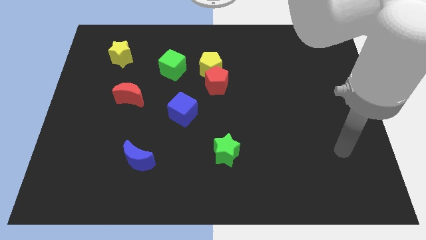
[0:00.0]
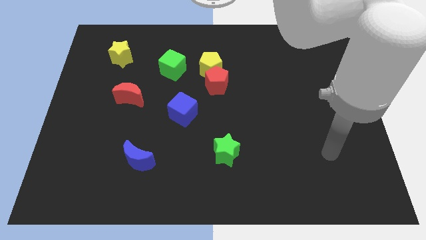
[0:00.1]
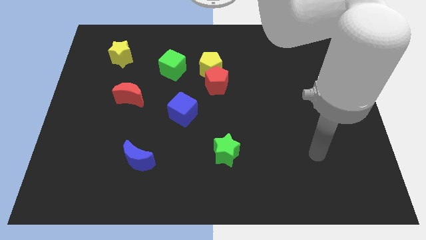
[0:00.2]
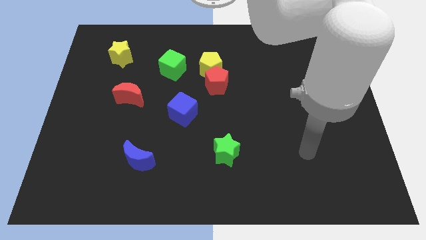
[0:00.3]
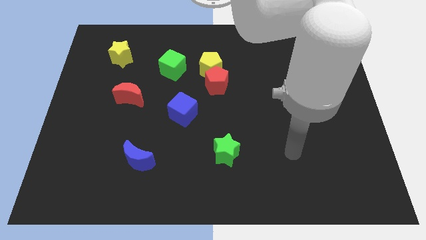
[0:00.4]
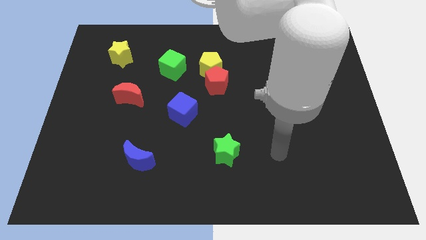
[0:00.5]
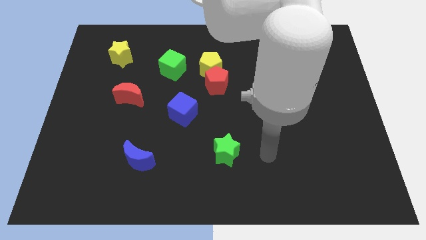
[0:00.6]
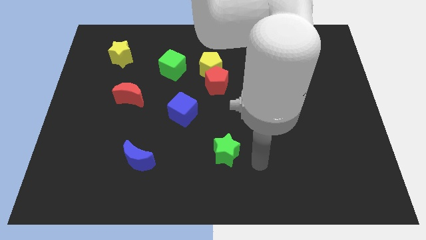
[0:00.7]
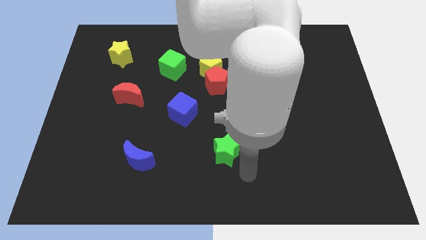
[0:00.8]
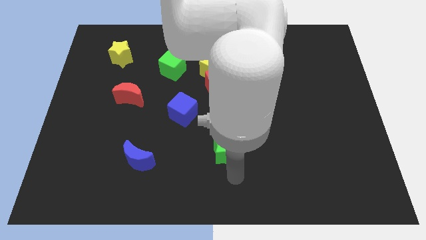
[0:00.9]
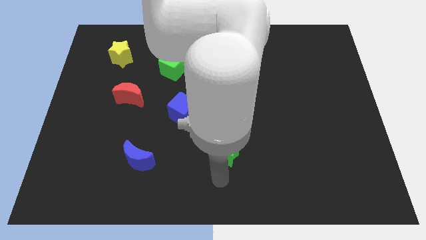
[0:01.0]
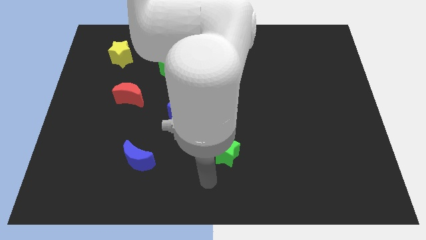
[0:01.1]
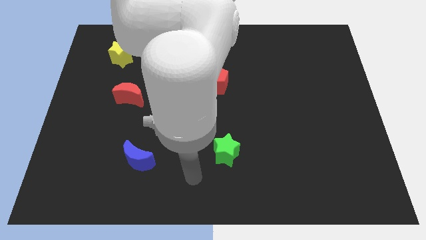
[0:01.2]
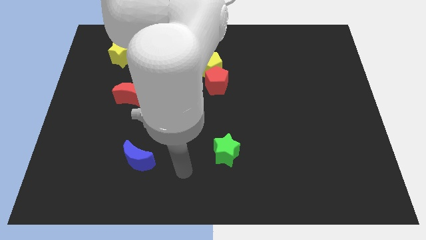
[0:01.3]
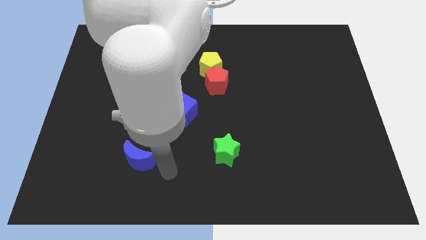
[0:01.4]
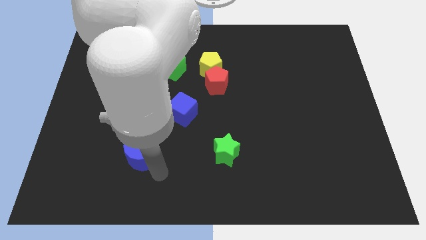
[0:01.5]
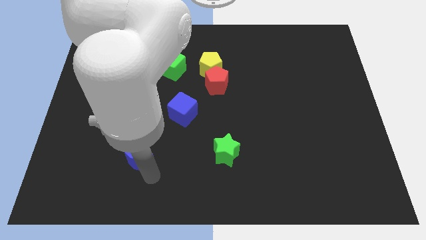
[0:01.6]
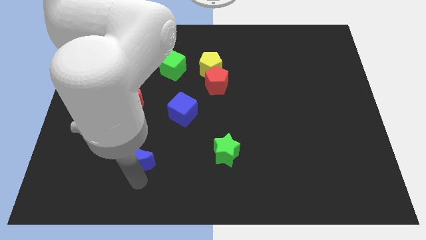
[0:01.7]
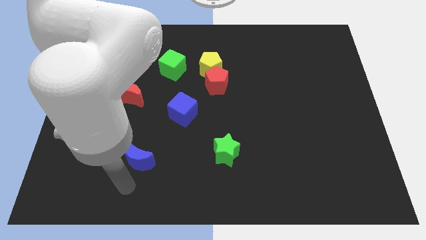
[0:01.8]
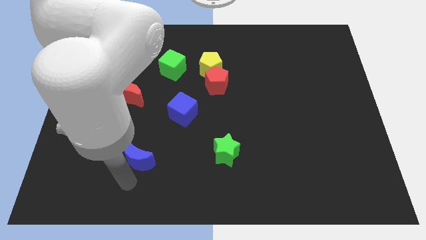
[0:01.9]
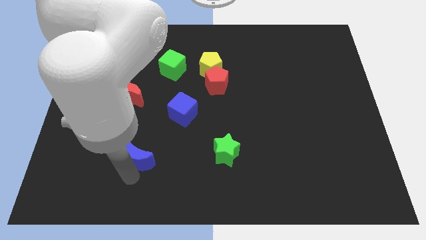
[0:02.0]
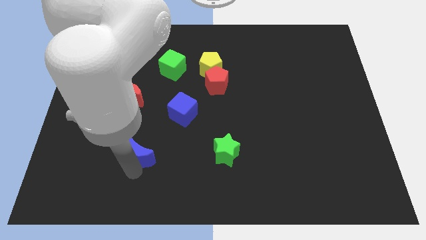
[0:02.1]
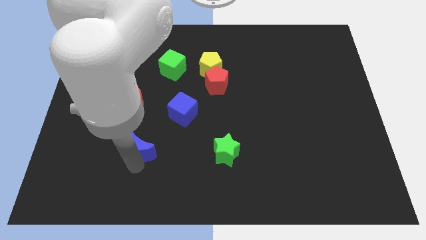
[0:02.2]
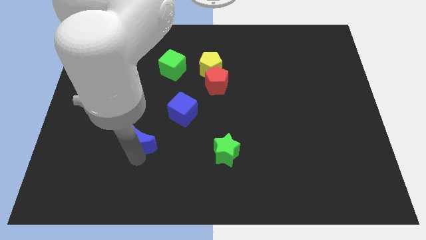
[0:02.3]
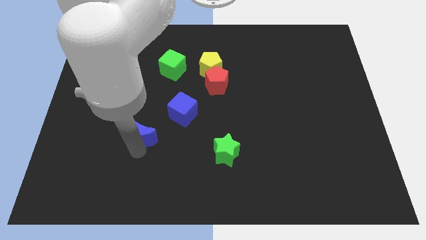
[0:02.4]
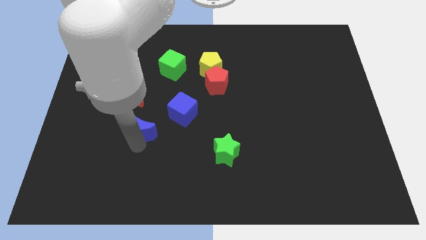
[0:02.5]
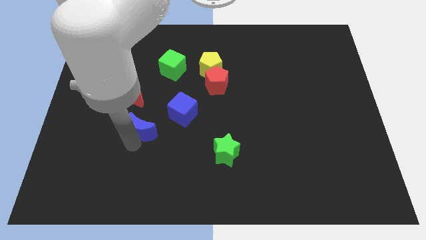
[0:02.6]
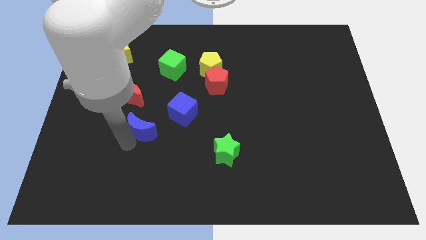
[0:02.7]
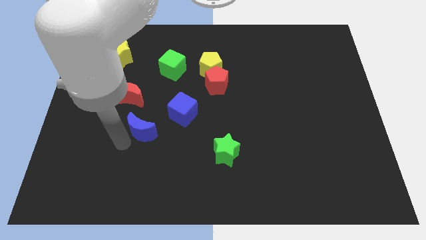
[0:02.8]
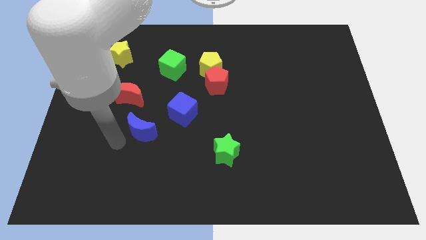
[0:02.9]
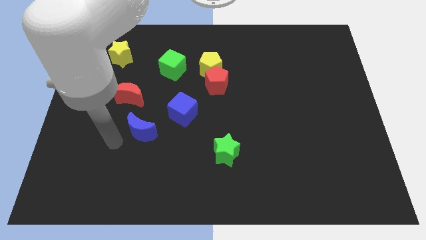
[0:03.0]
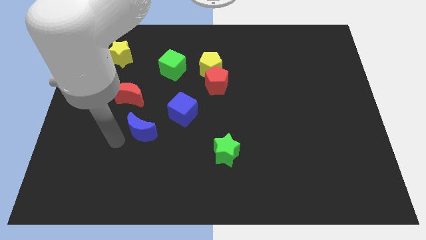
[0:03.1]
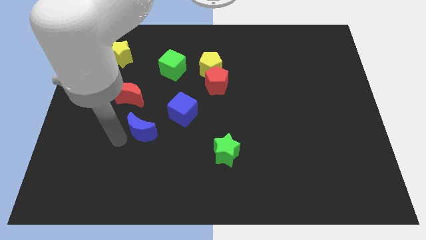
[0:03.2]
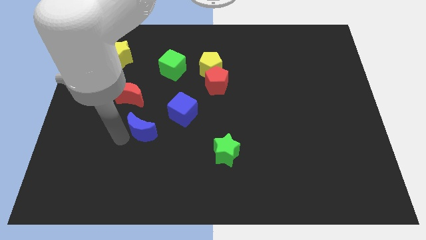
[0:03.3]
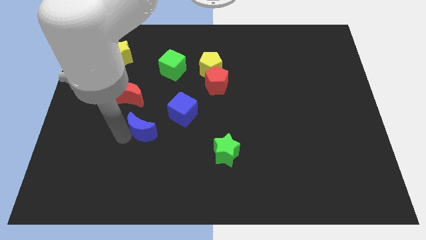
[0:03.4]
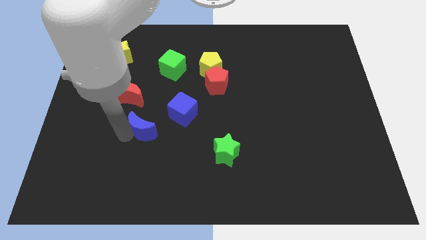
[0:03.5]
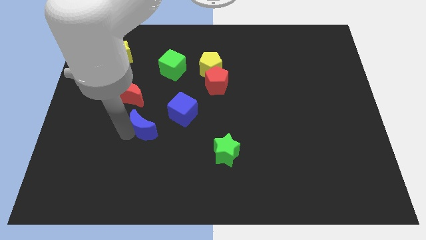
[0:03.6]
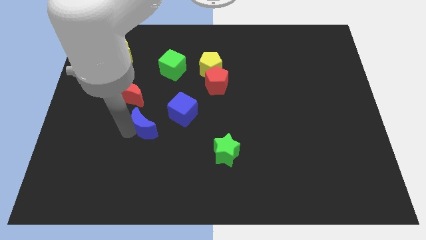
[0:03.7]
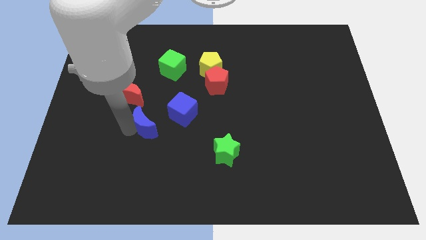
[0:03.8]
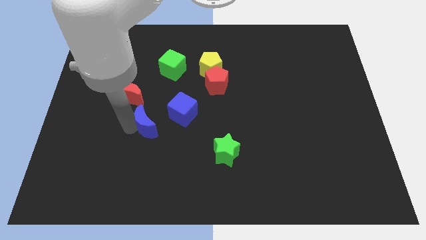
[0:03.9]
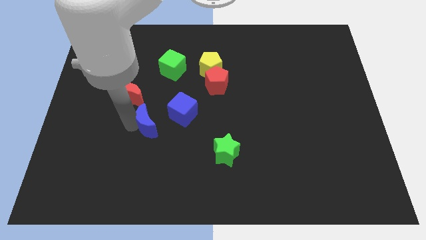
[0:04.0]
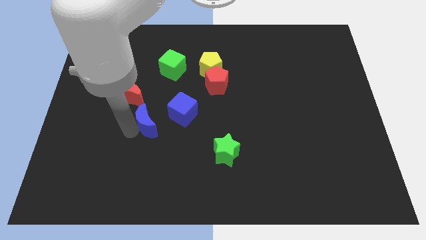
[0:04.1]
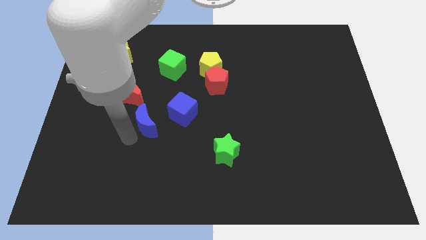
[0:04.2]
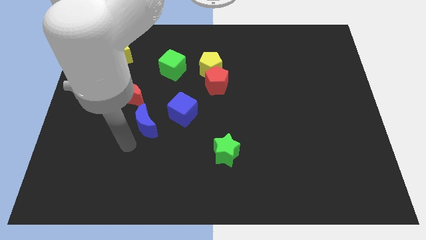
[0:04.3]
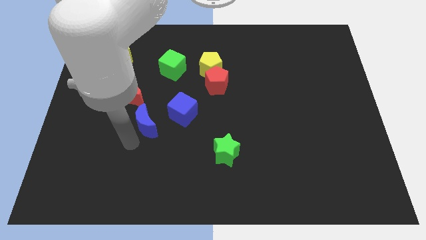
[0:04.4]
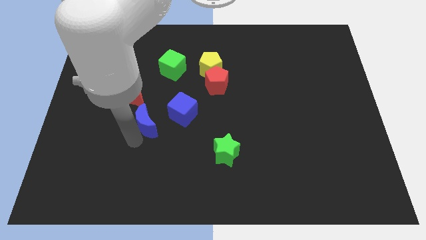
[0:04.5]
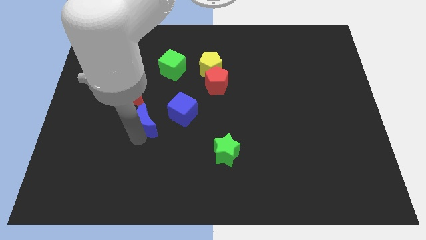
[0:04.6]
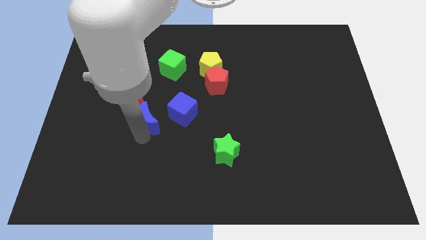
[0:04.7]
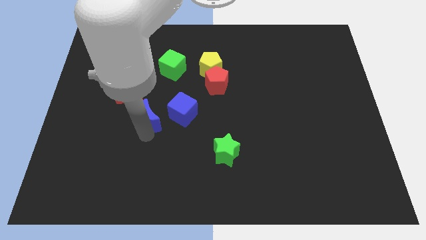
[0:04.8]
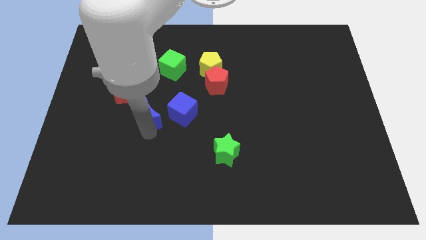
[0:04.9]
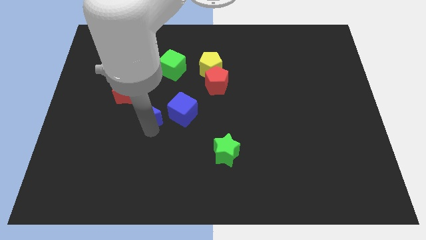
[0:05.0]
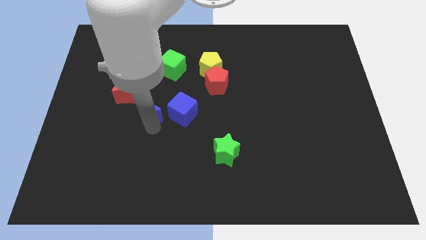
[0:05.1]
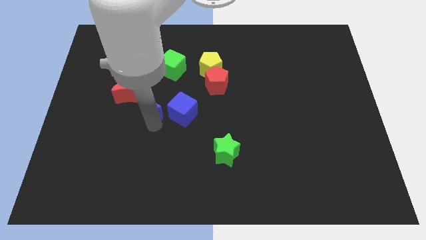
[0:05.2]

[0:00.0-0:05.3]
slide the blue moon to the bottom of the green cube

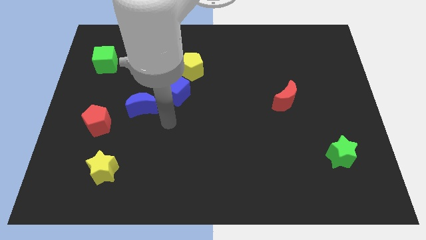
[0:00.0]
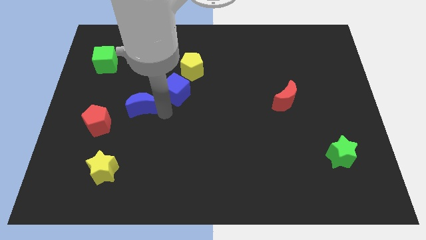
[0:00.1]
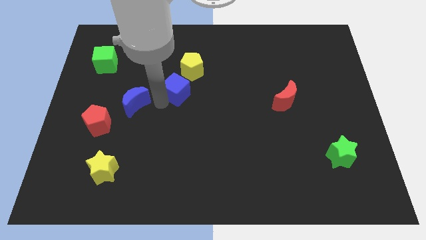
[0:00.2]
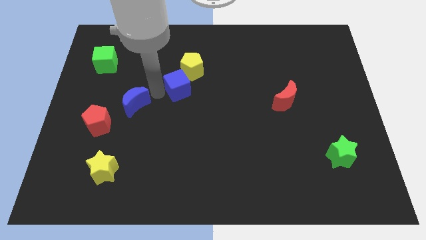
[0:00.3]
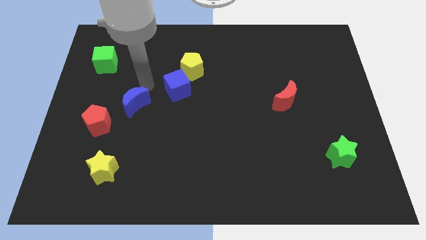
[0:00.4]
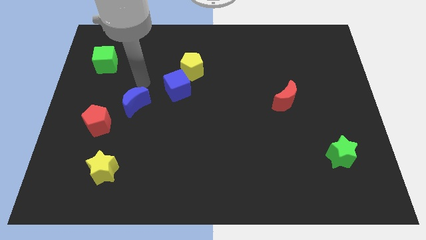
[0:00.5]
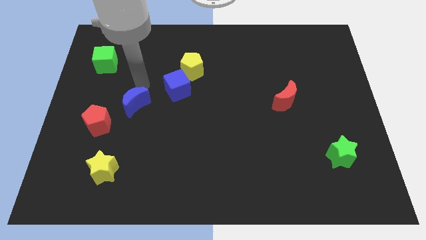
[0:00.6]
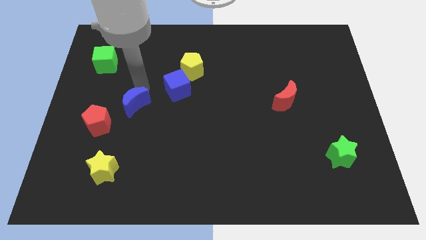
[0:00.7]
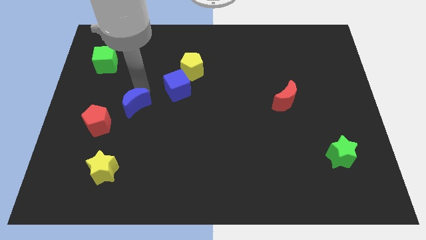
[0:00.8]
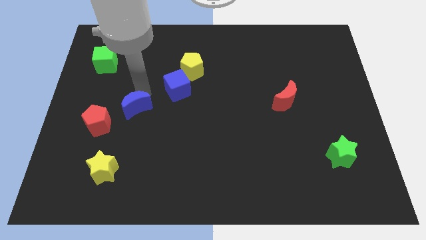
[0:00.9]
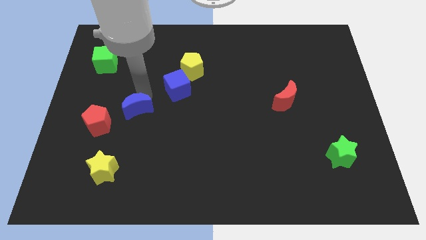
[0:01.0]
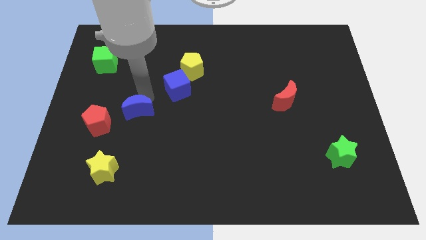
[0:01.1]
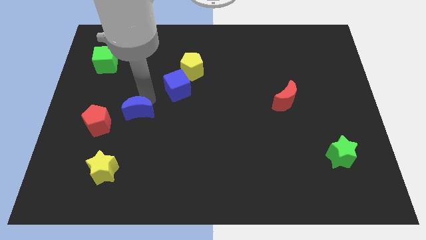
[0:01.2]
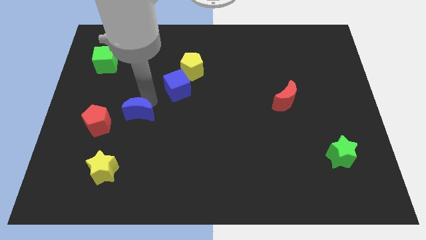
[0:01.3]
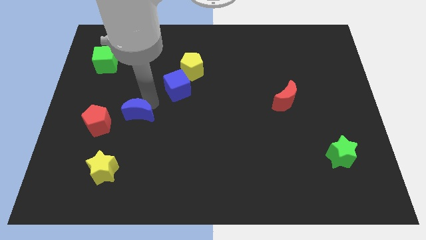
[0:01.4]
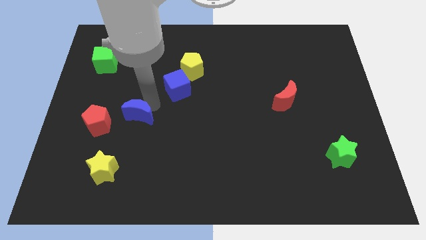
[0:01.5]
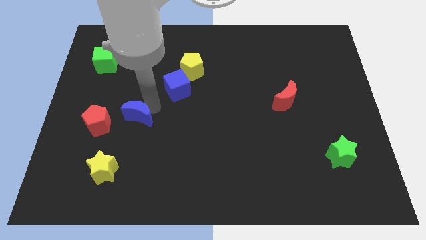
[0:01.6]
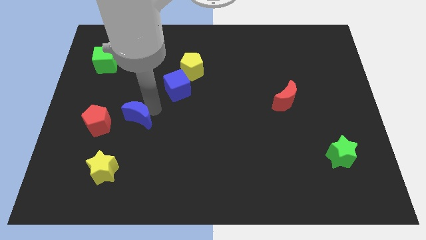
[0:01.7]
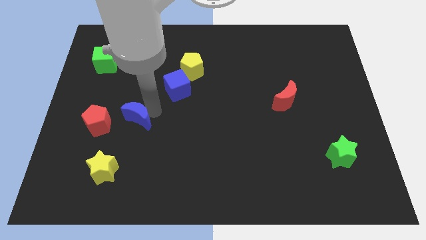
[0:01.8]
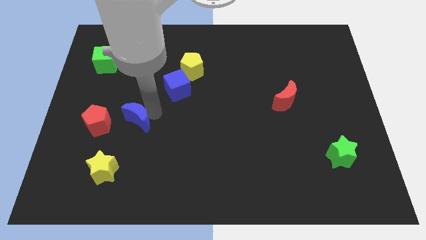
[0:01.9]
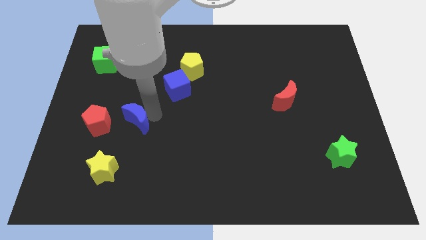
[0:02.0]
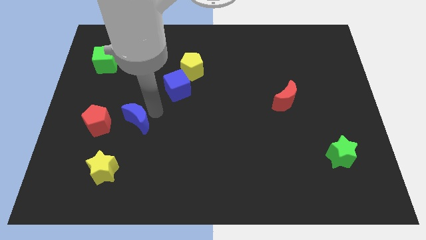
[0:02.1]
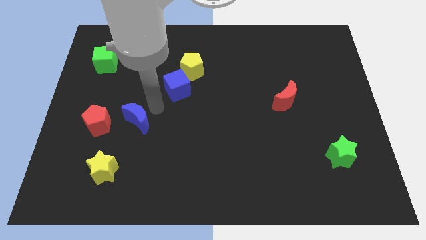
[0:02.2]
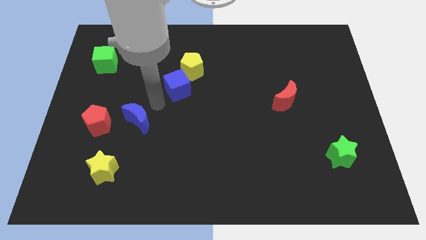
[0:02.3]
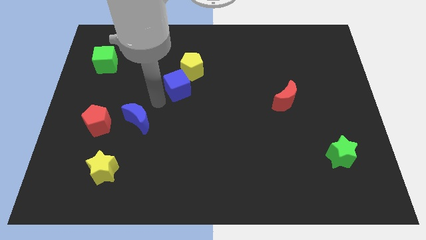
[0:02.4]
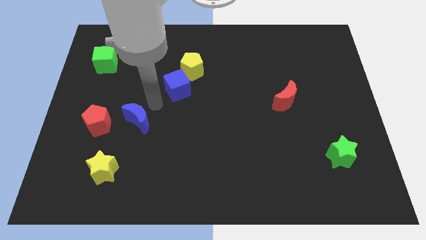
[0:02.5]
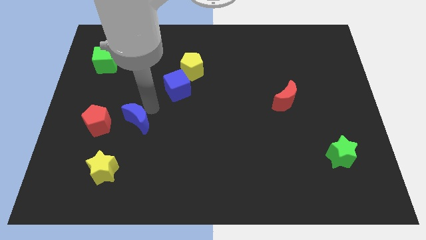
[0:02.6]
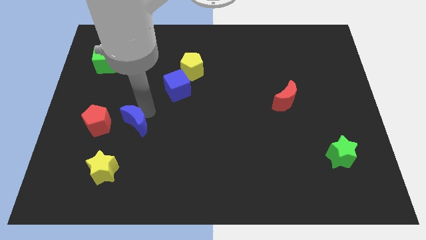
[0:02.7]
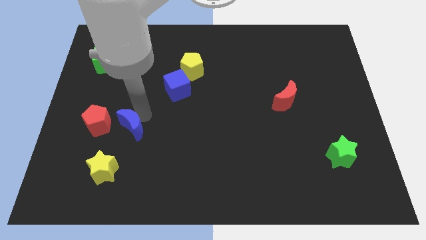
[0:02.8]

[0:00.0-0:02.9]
slide the blue moon to the bottom right side of the red pentagon
